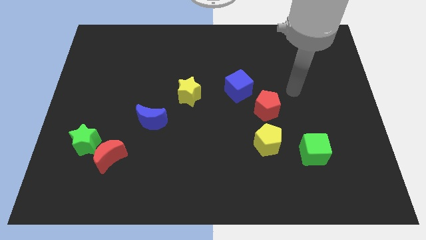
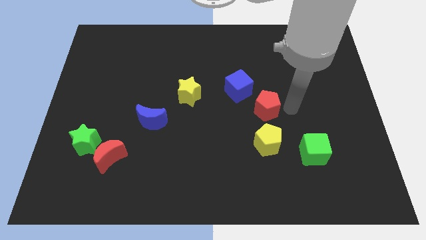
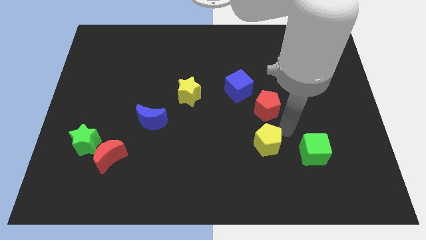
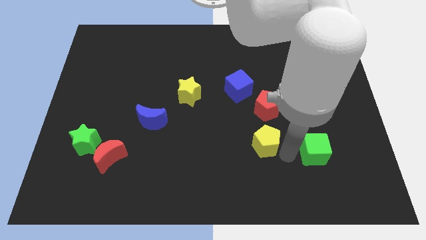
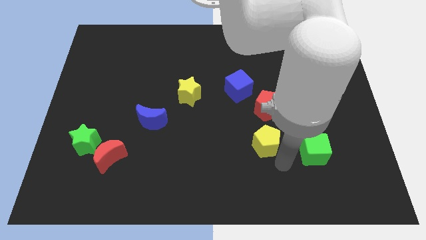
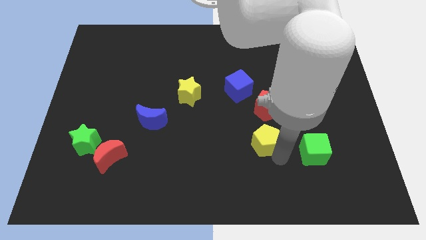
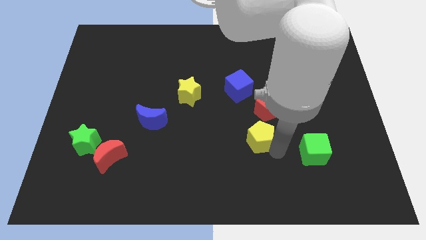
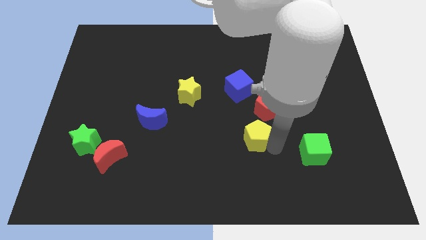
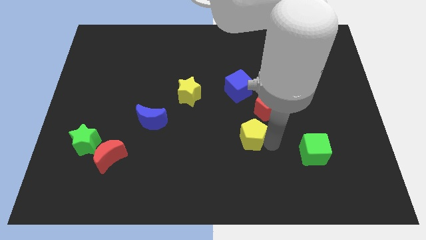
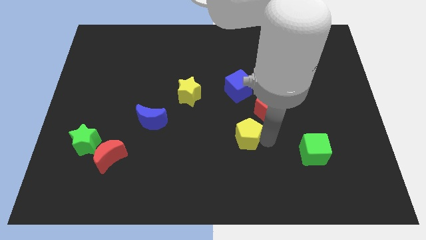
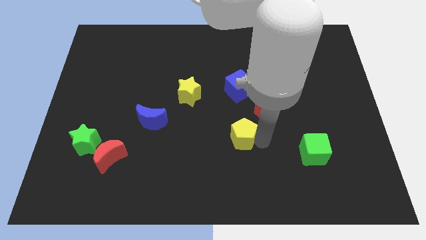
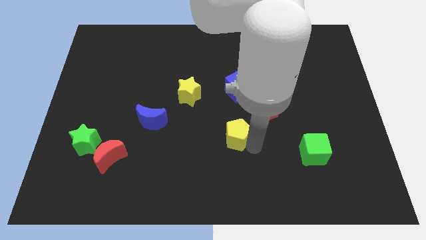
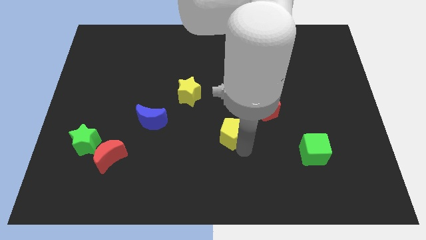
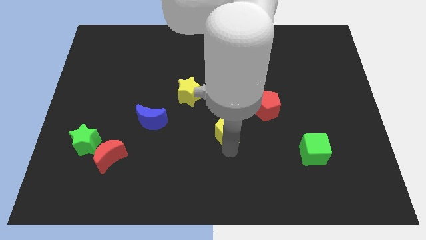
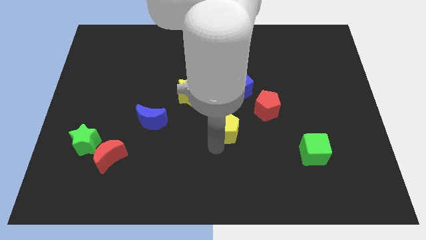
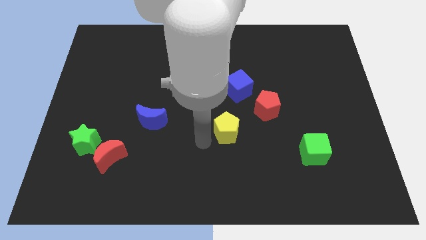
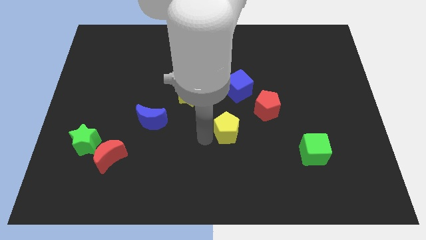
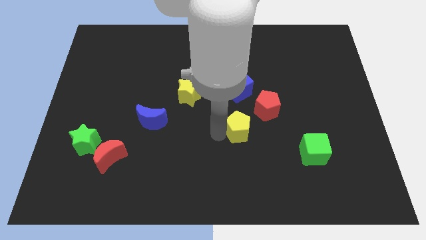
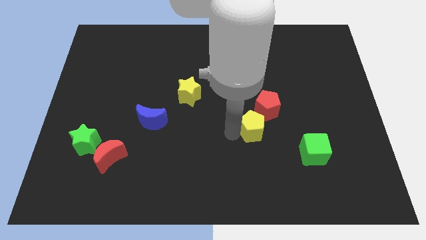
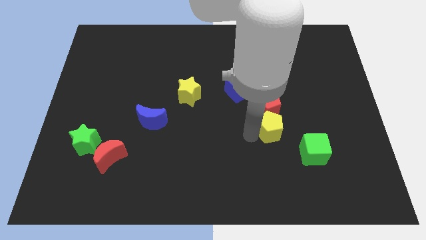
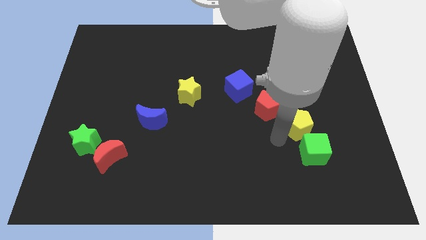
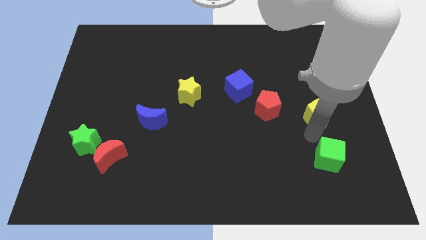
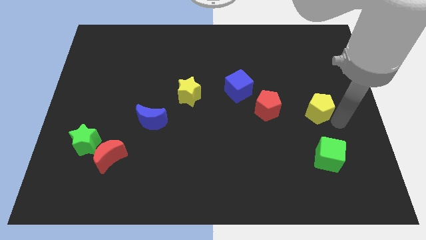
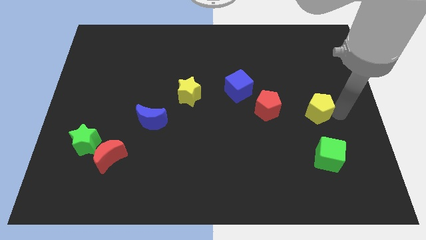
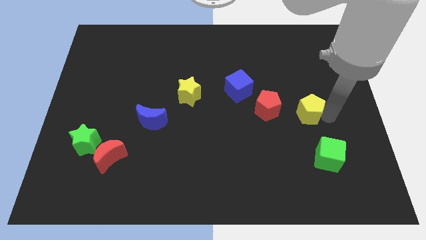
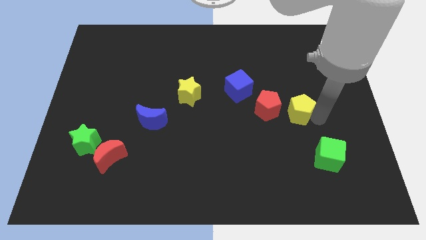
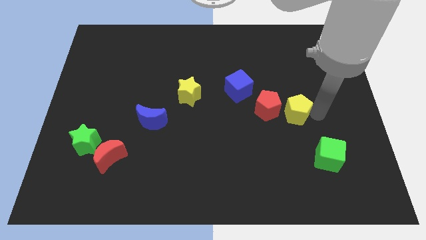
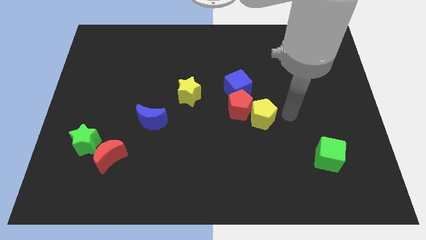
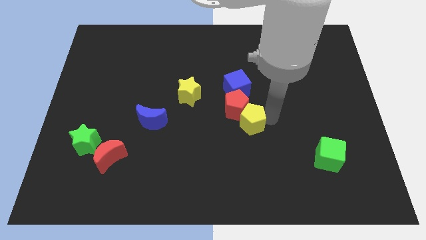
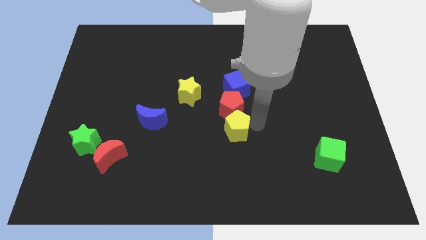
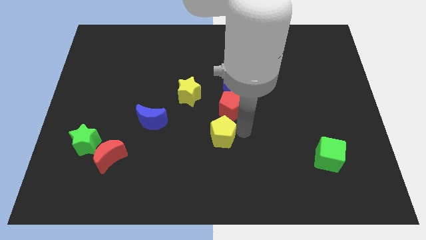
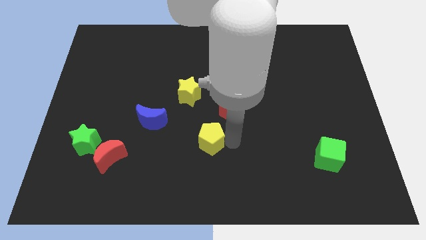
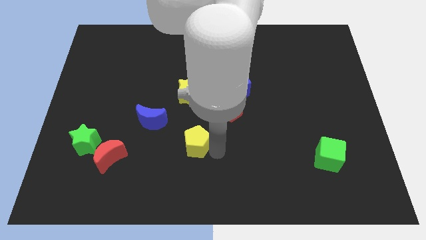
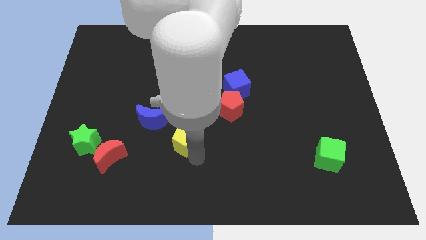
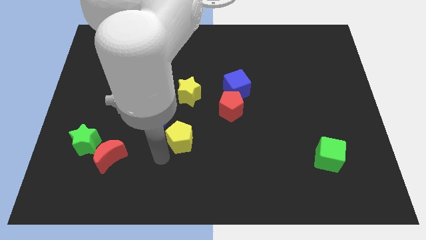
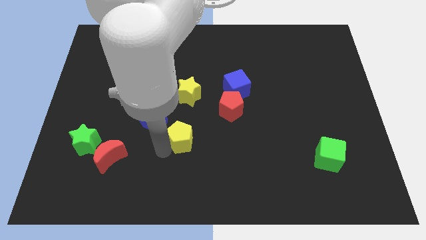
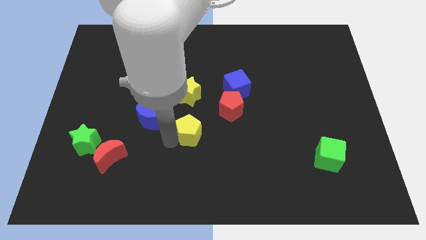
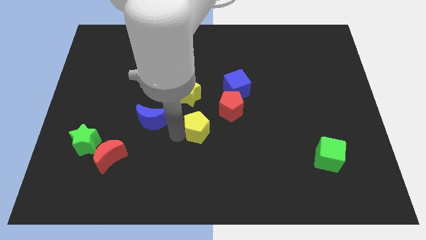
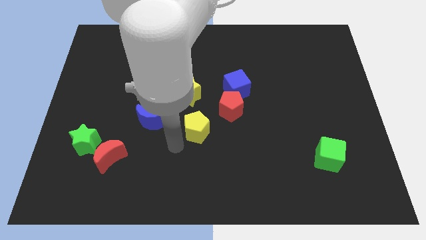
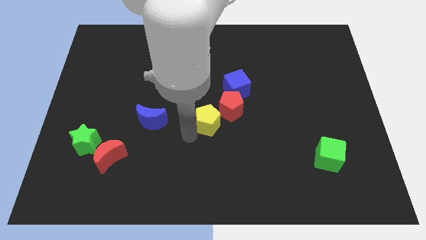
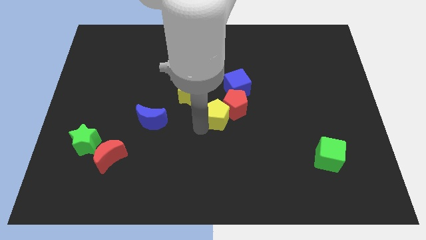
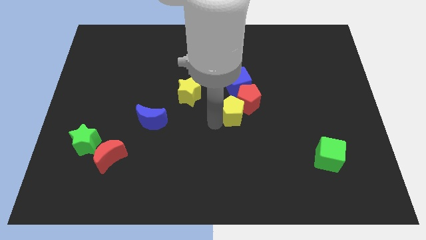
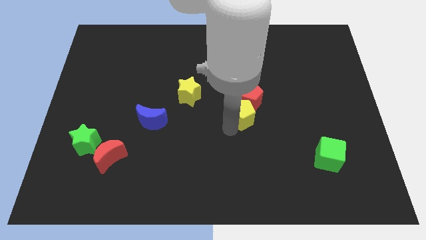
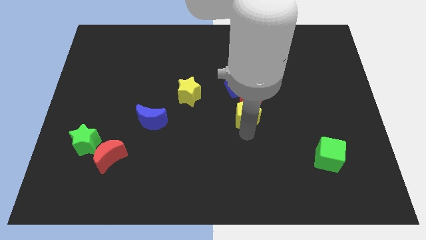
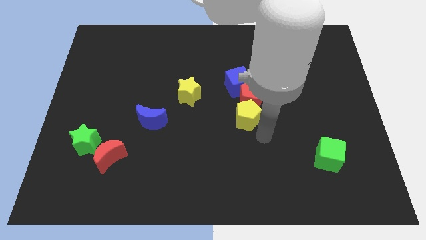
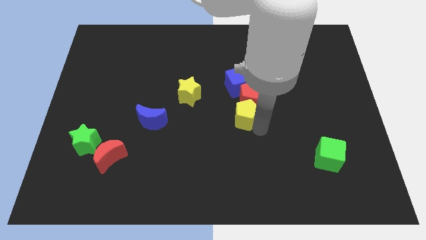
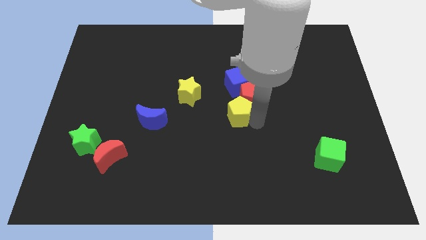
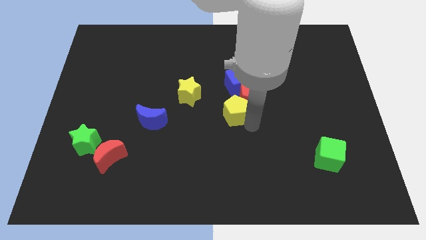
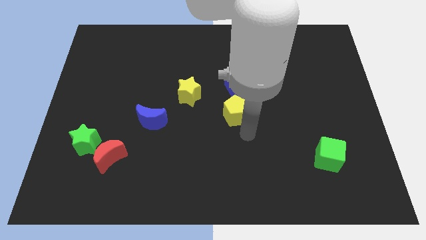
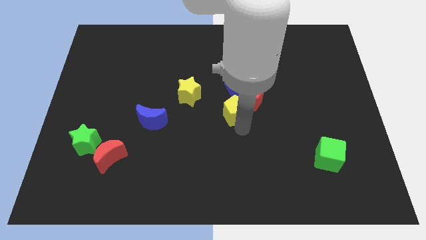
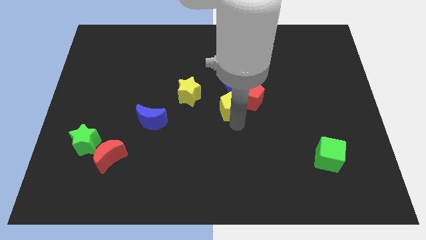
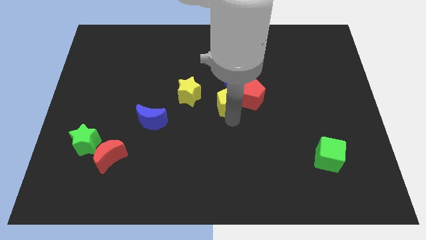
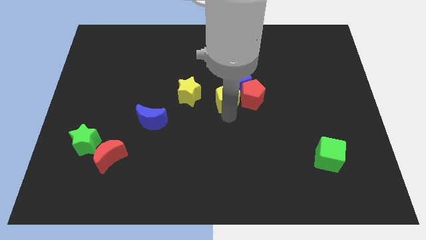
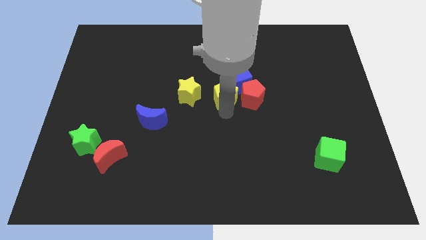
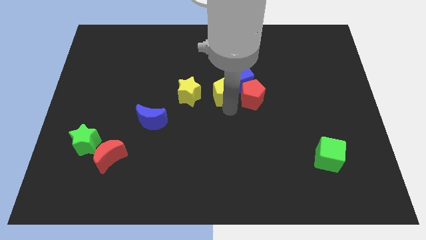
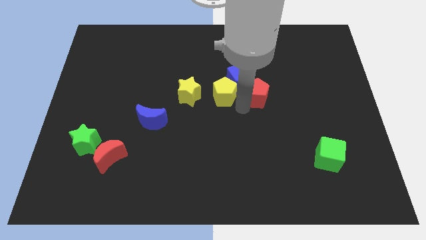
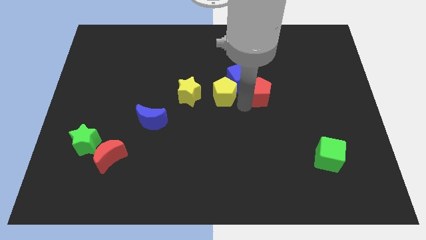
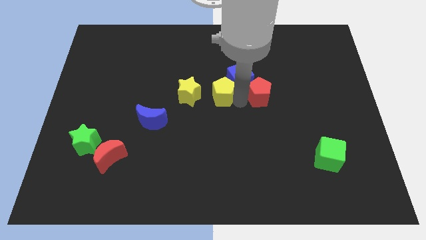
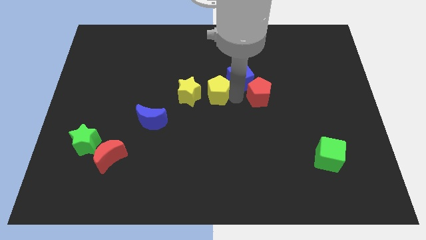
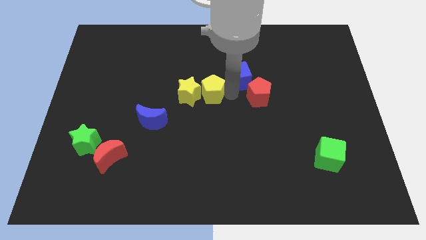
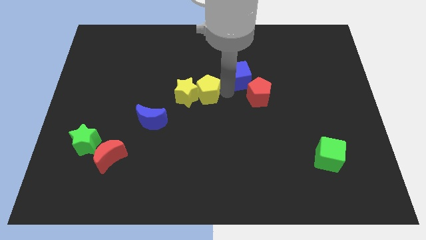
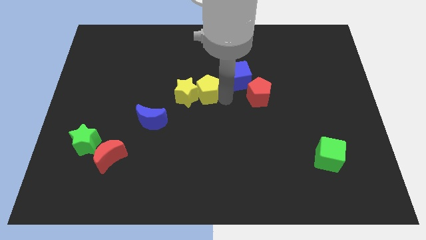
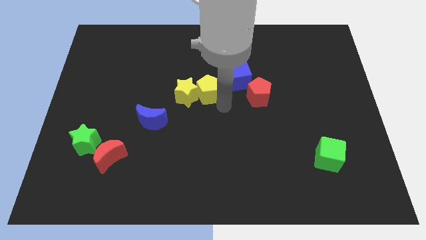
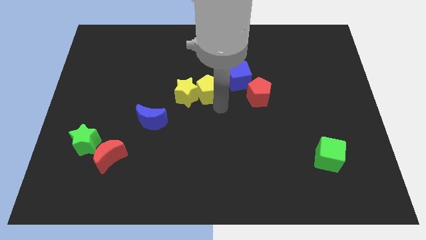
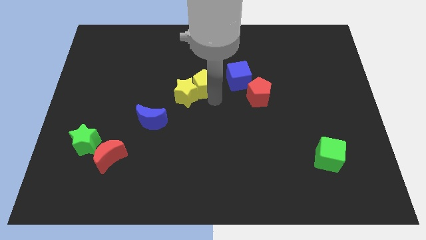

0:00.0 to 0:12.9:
slide the yellow pentagon above the yellow star

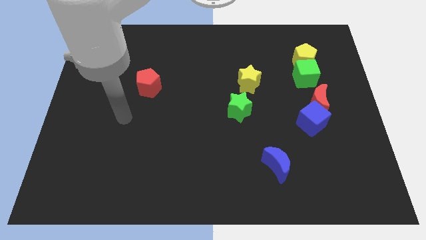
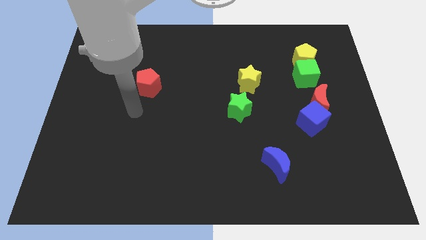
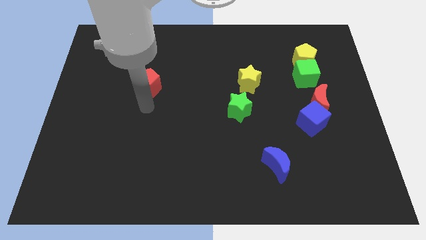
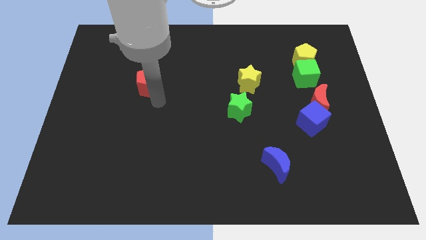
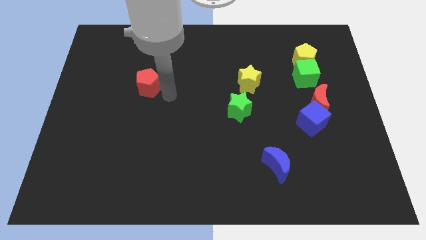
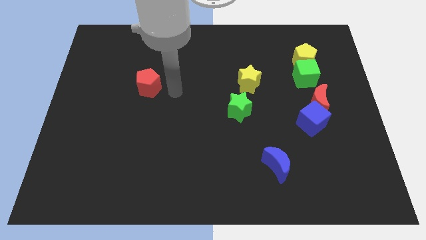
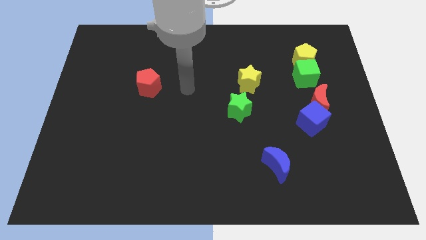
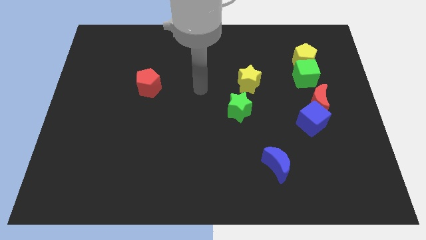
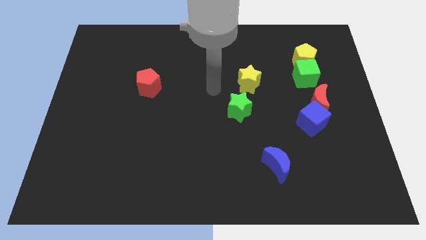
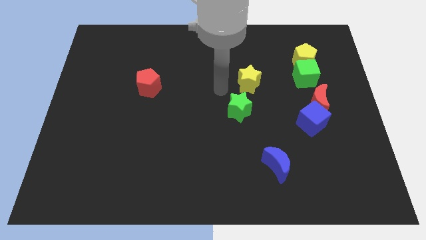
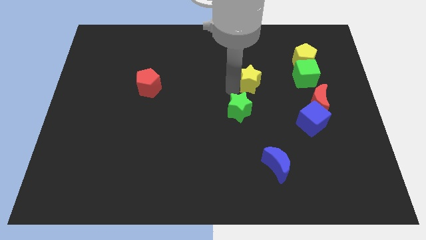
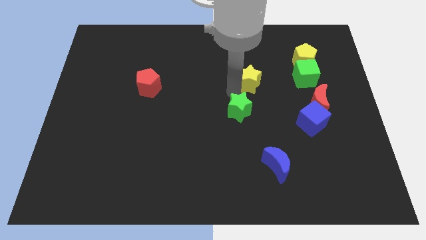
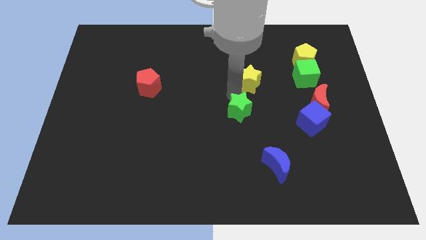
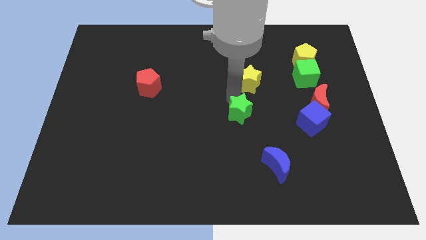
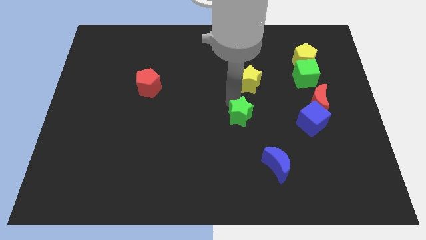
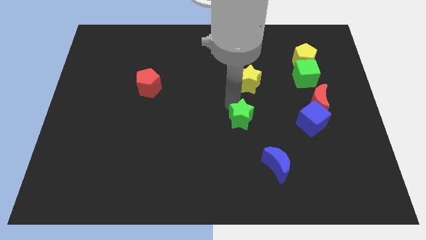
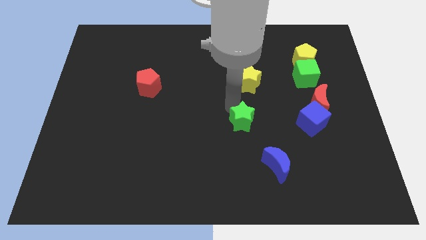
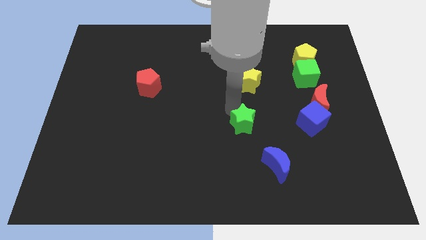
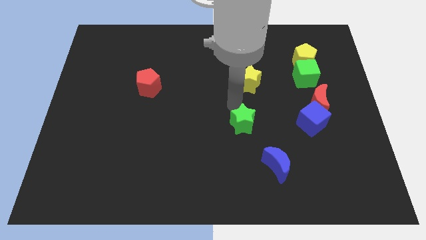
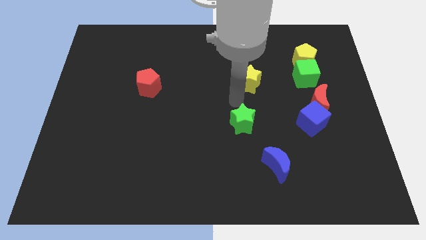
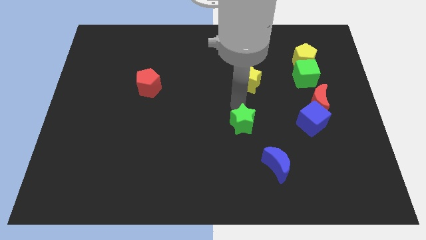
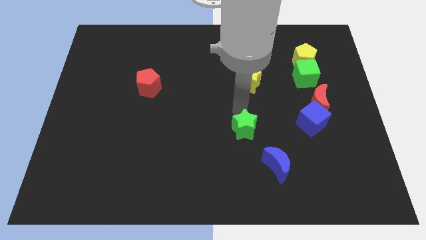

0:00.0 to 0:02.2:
slide the green star to the top left of the blue moon
